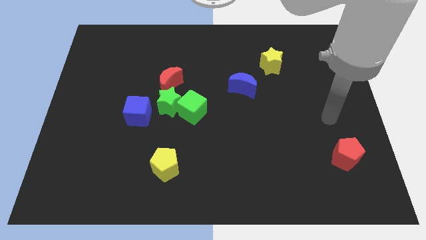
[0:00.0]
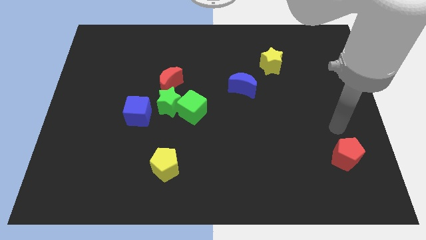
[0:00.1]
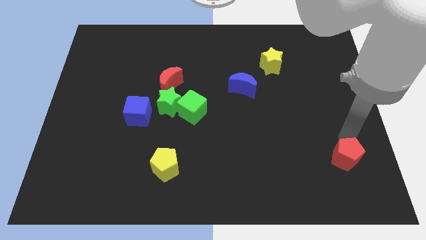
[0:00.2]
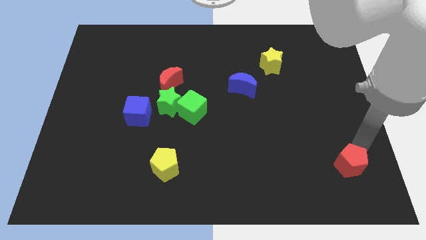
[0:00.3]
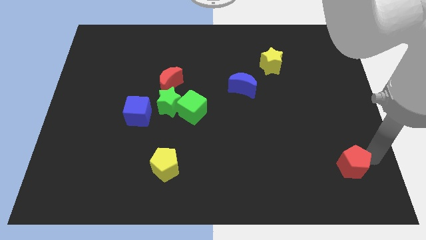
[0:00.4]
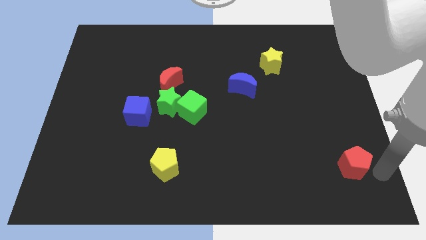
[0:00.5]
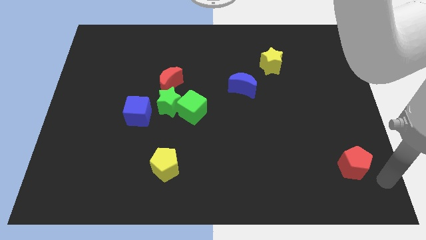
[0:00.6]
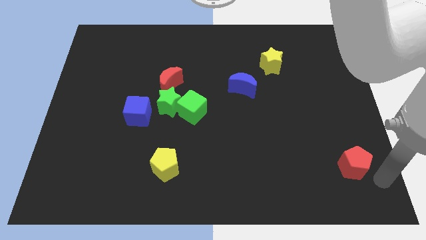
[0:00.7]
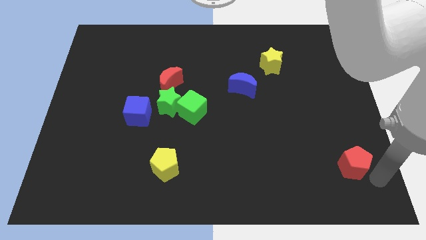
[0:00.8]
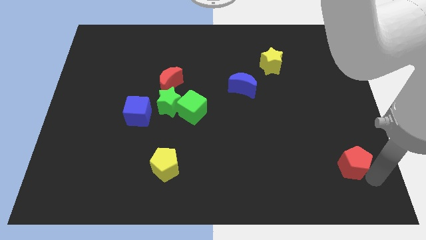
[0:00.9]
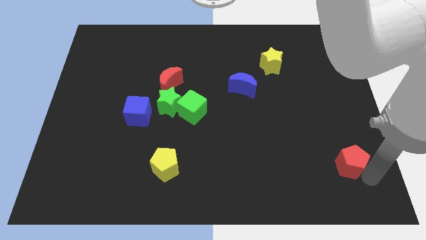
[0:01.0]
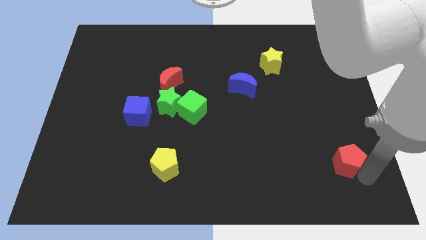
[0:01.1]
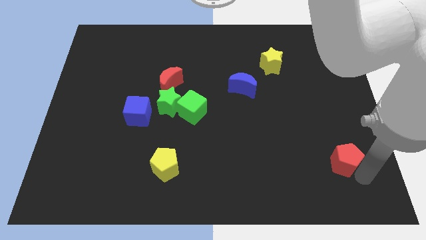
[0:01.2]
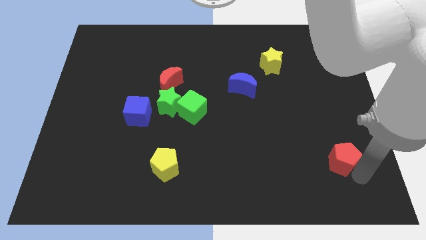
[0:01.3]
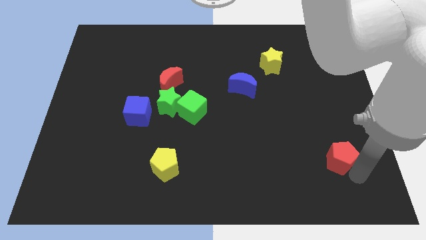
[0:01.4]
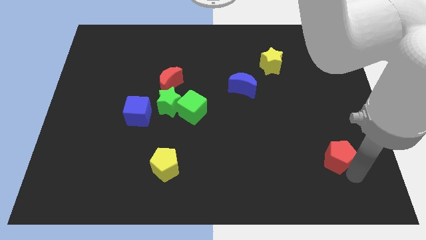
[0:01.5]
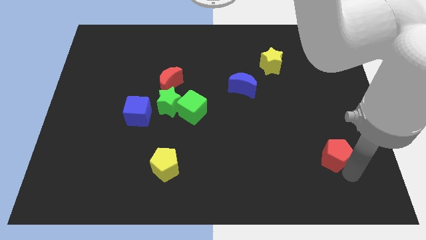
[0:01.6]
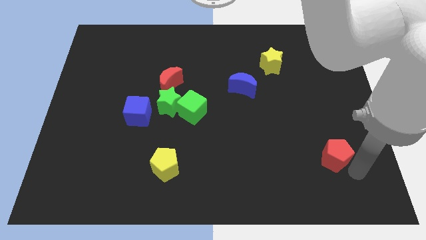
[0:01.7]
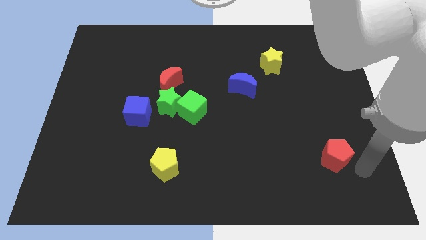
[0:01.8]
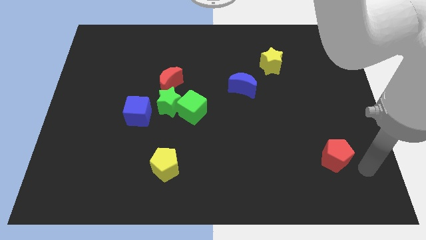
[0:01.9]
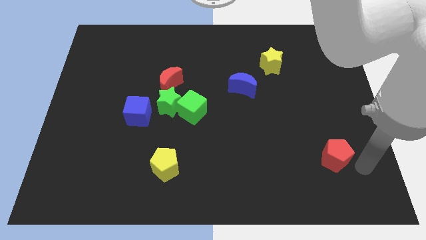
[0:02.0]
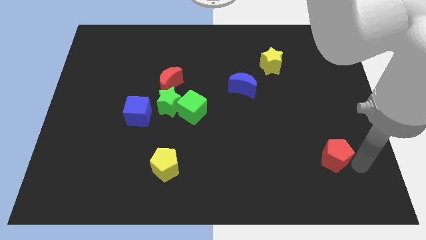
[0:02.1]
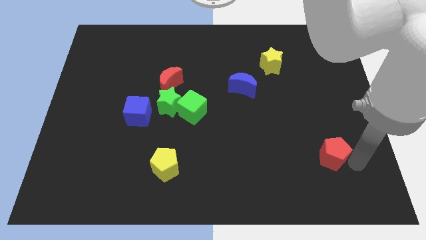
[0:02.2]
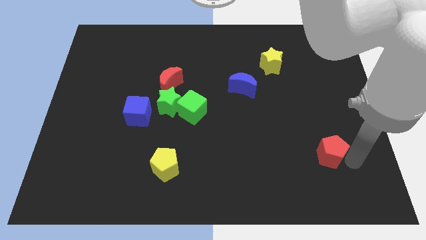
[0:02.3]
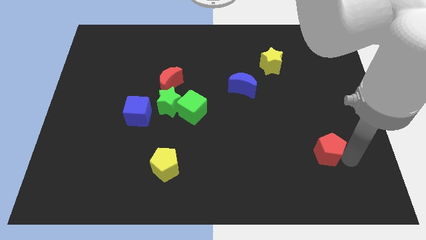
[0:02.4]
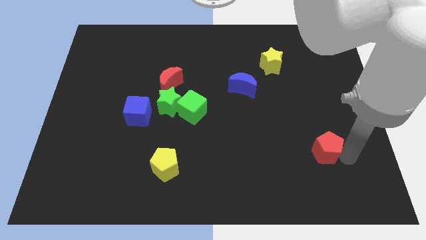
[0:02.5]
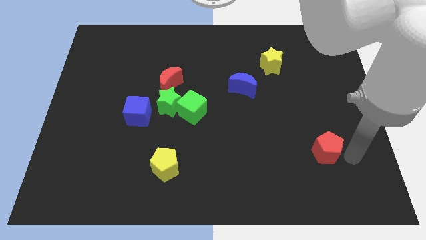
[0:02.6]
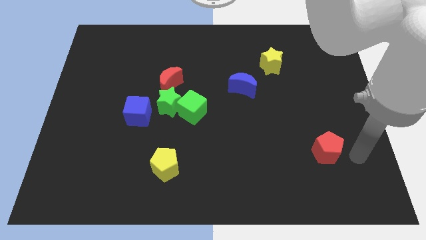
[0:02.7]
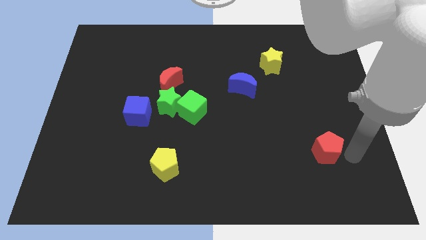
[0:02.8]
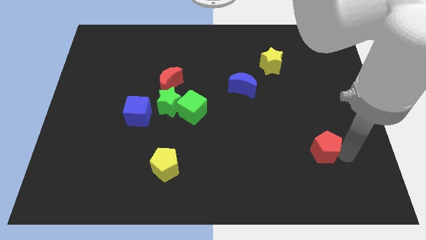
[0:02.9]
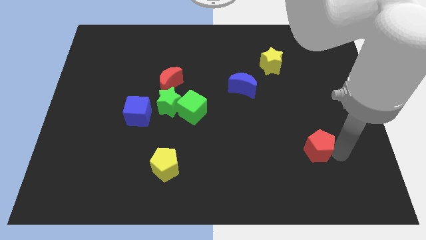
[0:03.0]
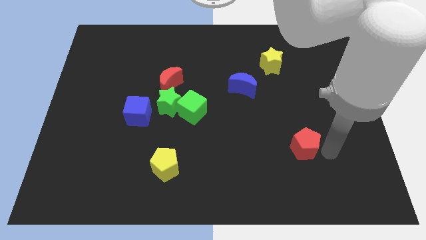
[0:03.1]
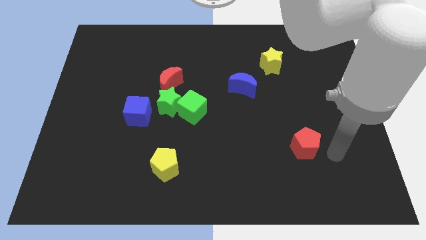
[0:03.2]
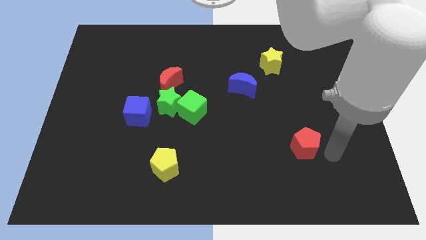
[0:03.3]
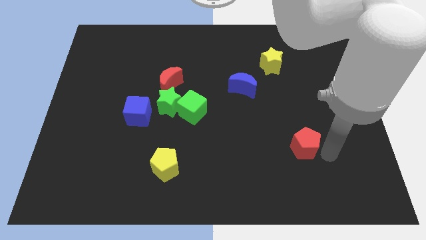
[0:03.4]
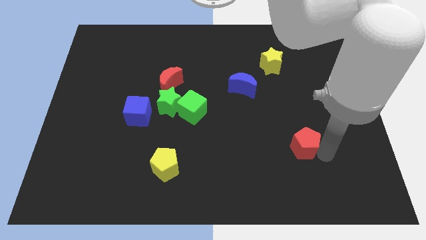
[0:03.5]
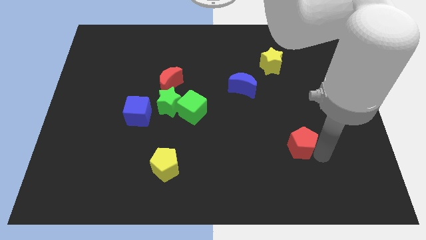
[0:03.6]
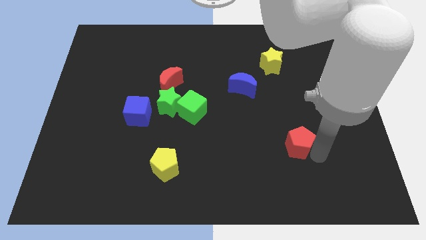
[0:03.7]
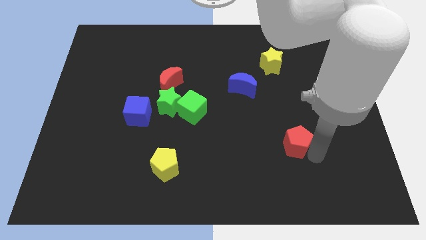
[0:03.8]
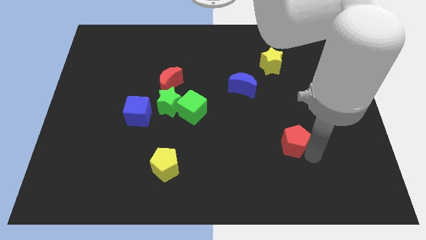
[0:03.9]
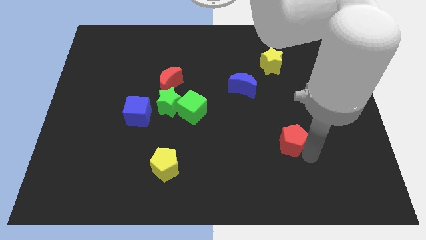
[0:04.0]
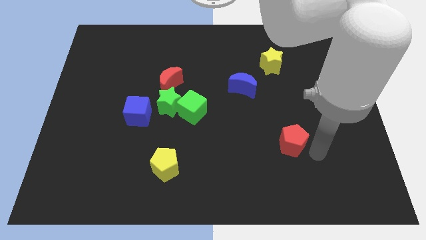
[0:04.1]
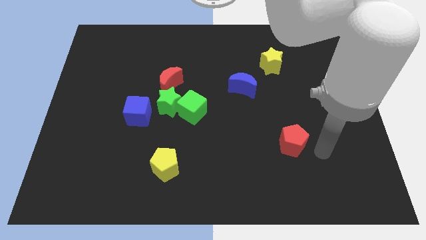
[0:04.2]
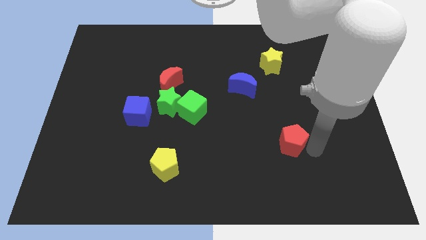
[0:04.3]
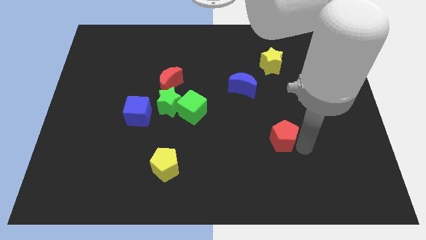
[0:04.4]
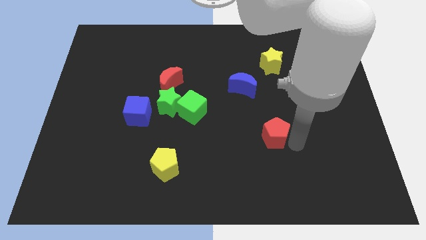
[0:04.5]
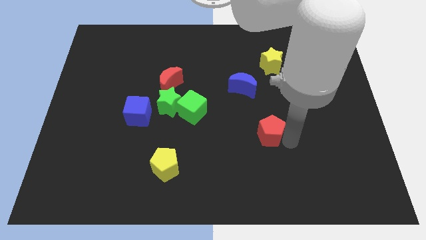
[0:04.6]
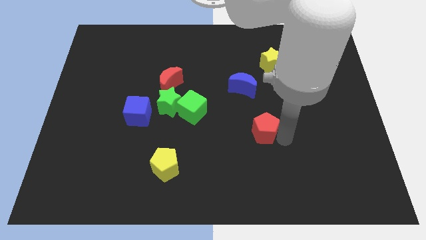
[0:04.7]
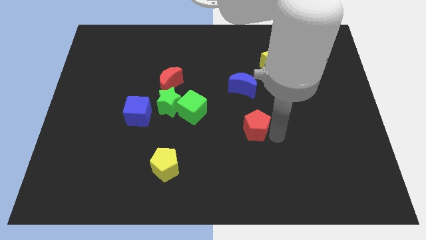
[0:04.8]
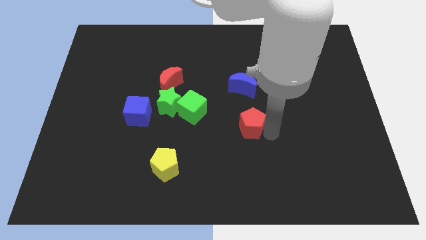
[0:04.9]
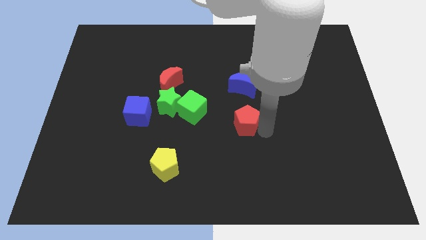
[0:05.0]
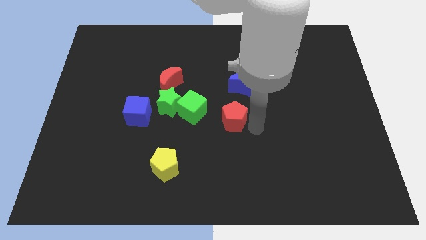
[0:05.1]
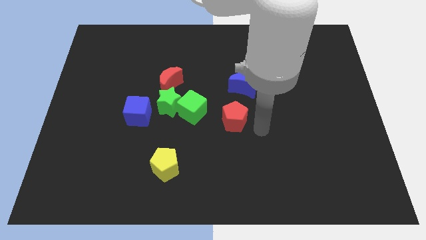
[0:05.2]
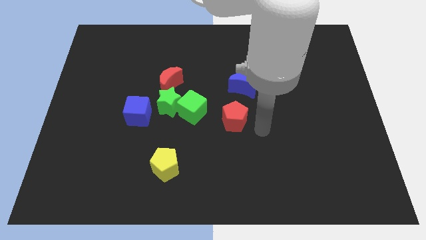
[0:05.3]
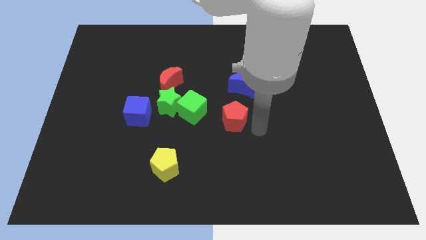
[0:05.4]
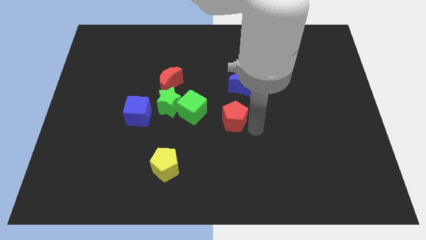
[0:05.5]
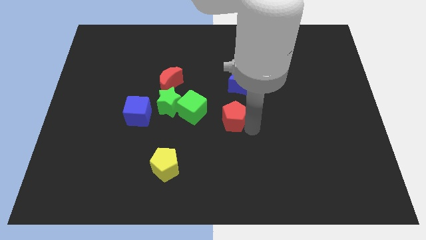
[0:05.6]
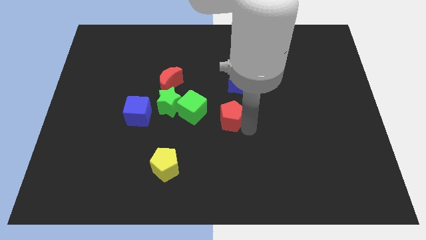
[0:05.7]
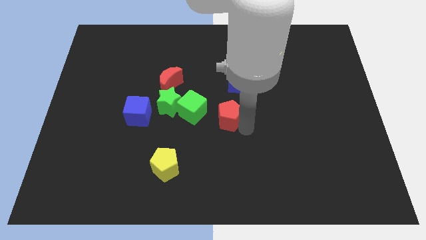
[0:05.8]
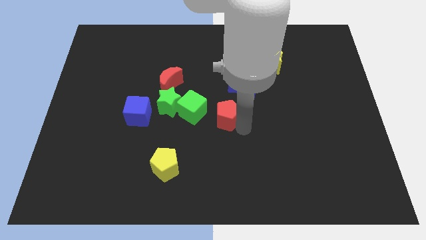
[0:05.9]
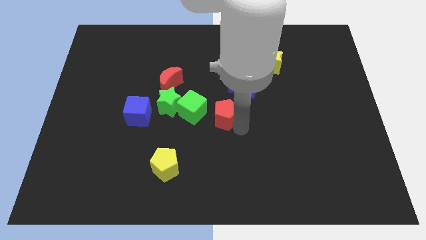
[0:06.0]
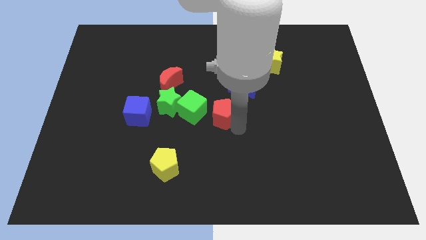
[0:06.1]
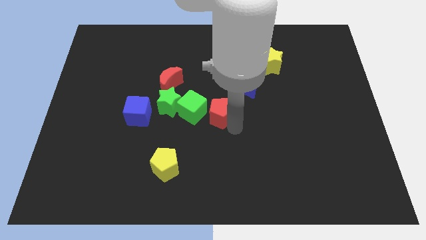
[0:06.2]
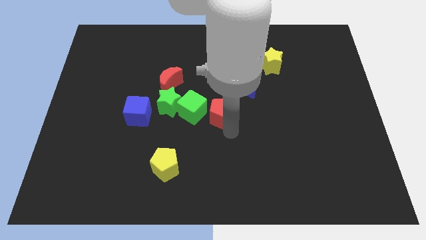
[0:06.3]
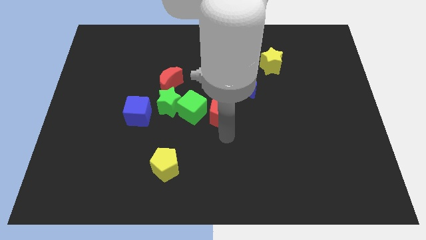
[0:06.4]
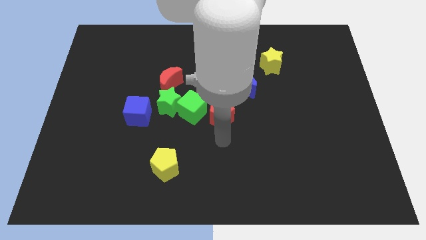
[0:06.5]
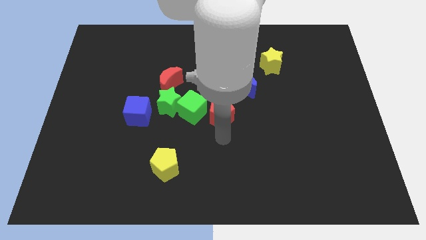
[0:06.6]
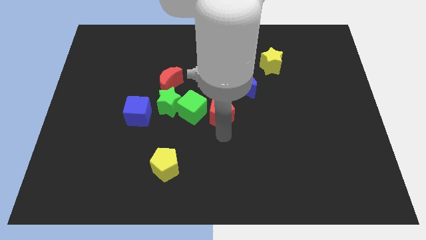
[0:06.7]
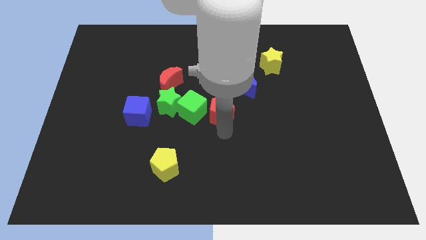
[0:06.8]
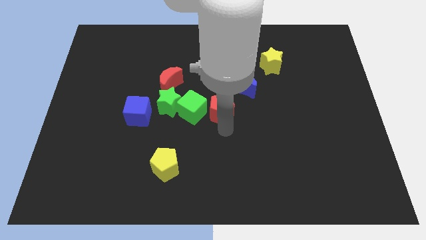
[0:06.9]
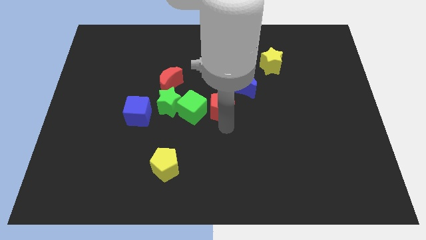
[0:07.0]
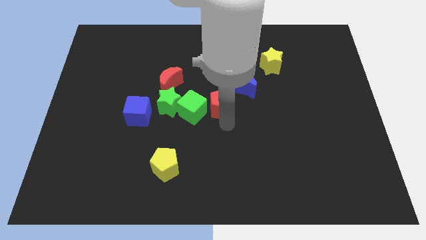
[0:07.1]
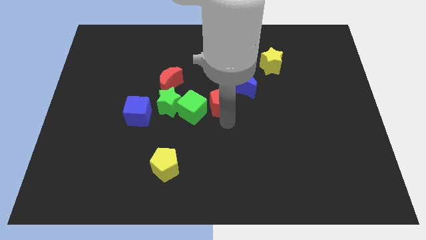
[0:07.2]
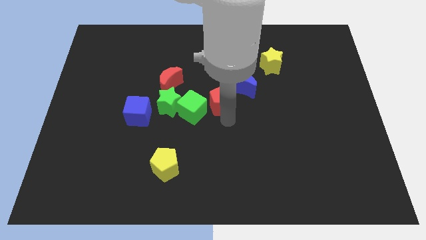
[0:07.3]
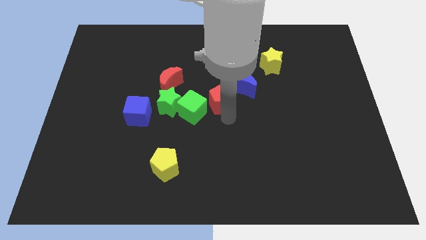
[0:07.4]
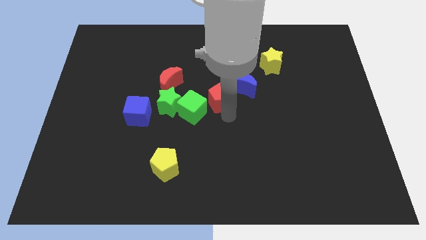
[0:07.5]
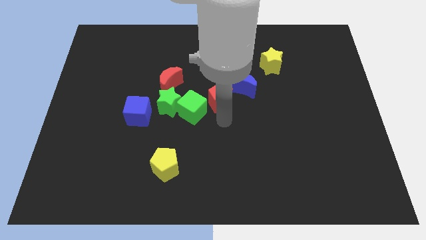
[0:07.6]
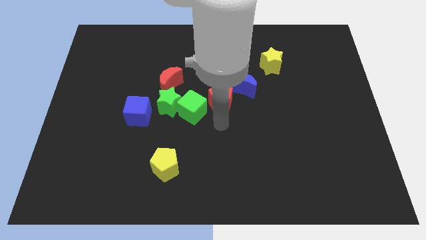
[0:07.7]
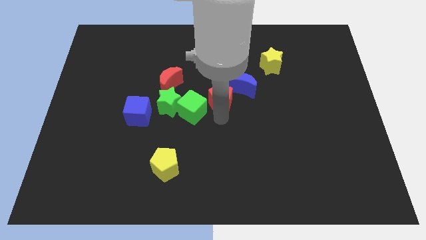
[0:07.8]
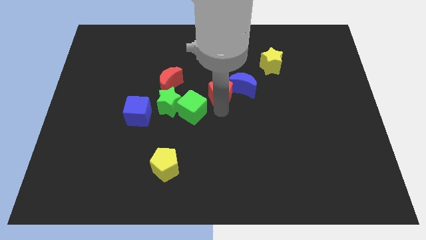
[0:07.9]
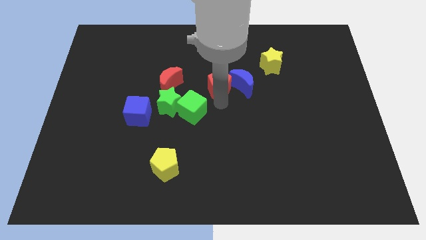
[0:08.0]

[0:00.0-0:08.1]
push the red pentagon diagonally up and to the left of the blue moon
